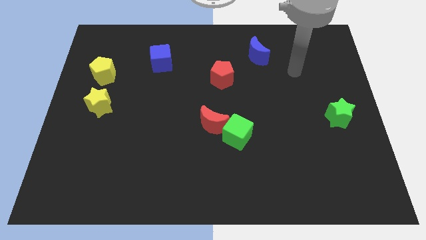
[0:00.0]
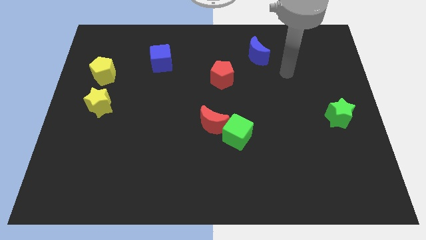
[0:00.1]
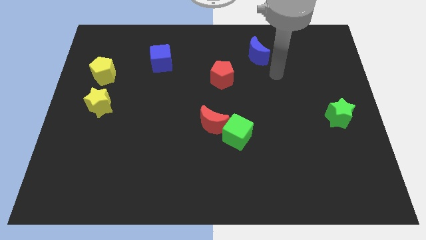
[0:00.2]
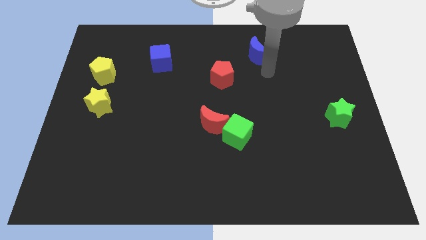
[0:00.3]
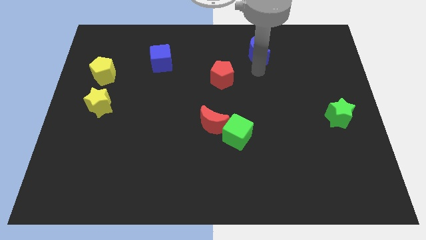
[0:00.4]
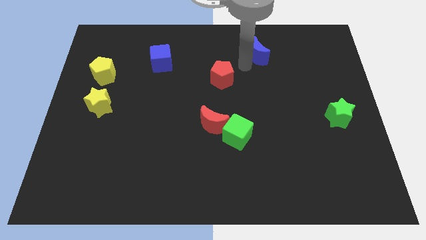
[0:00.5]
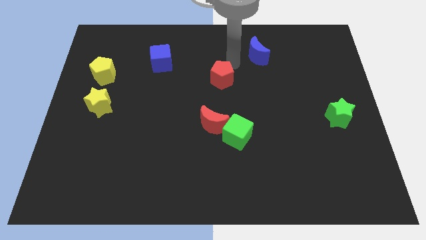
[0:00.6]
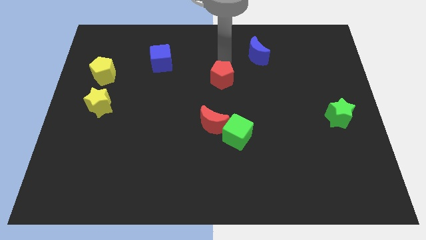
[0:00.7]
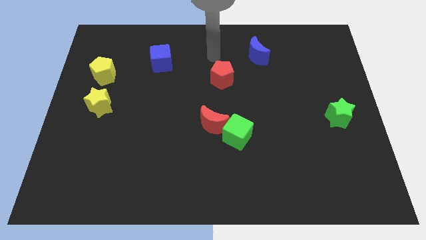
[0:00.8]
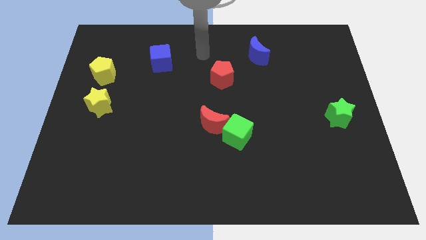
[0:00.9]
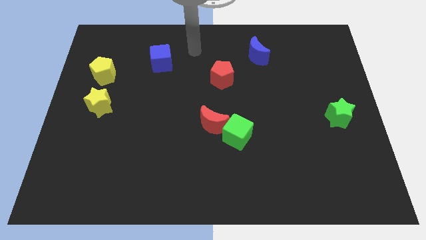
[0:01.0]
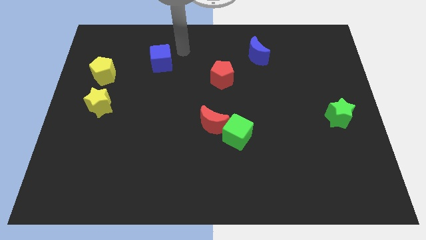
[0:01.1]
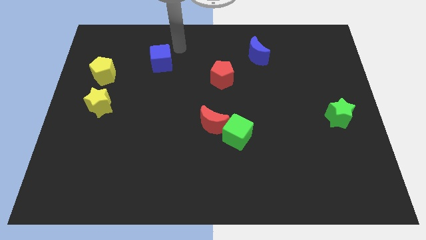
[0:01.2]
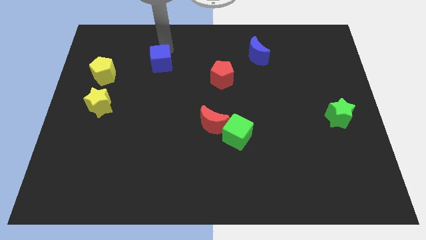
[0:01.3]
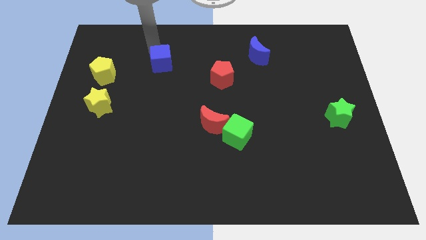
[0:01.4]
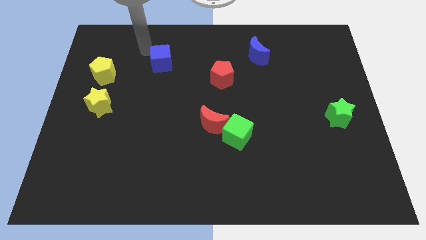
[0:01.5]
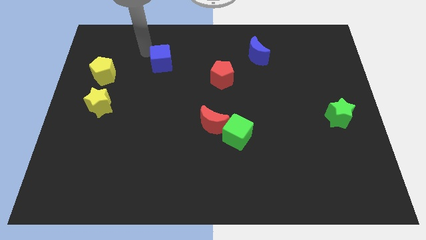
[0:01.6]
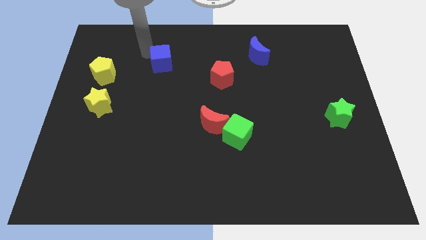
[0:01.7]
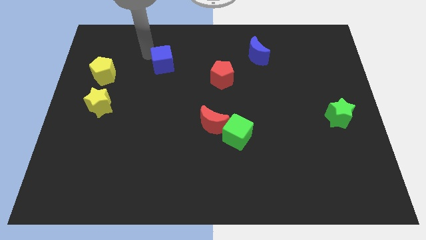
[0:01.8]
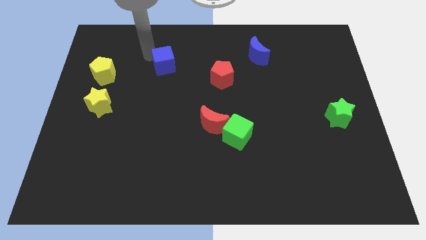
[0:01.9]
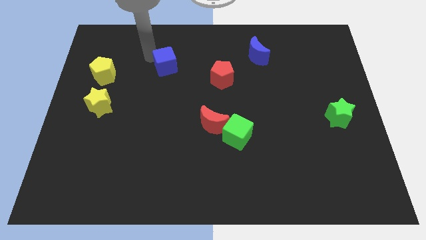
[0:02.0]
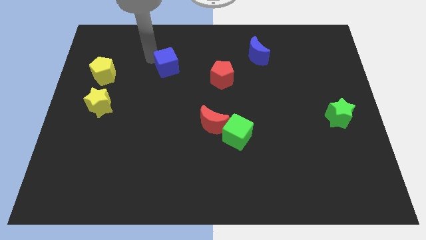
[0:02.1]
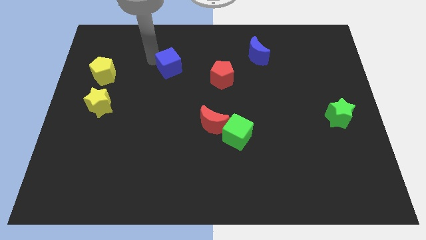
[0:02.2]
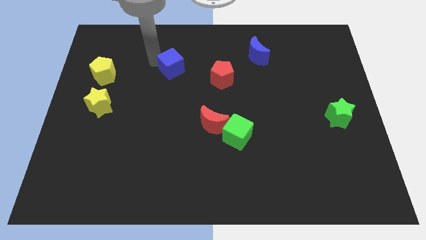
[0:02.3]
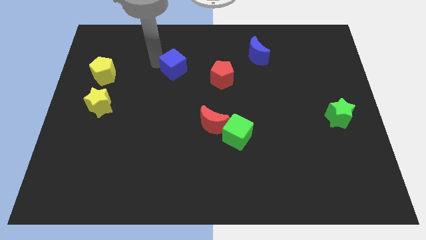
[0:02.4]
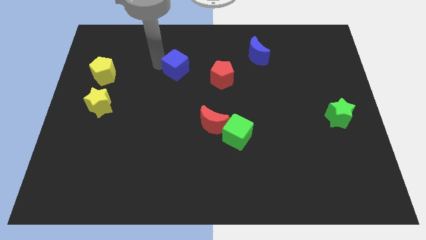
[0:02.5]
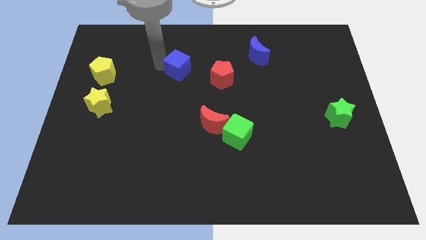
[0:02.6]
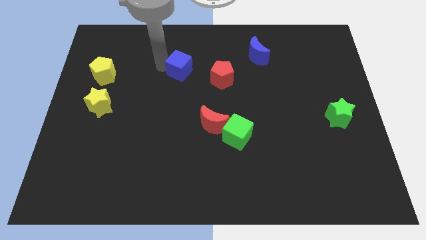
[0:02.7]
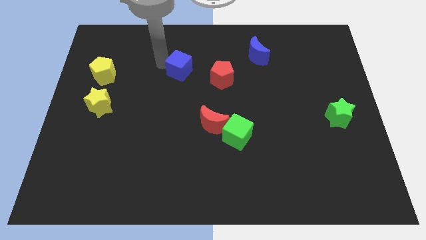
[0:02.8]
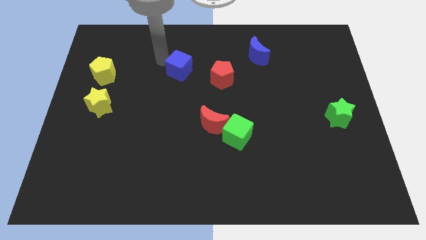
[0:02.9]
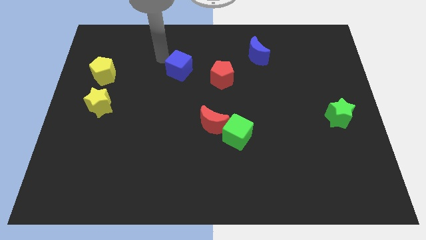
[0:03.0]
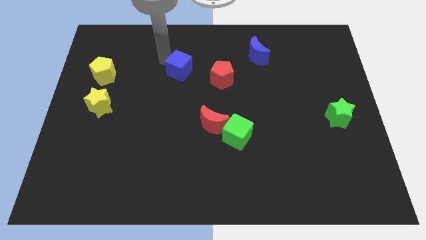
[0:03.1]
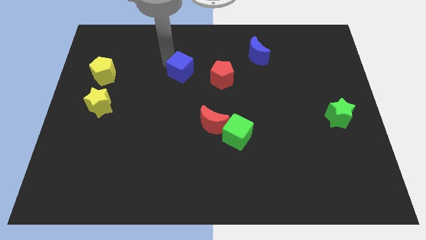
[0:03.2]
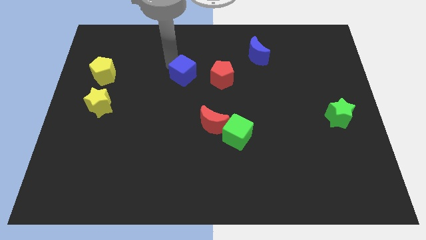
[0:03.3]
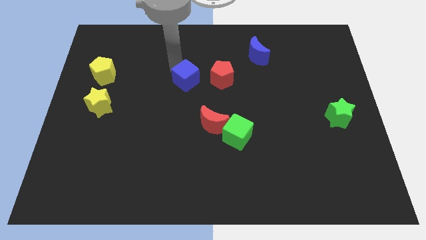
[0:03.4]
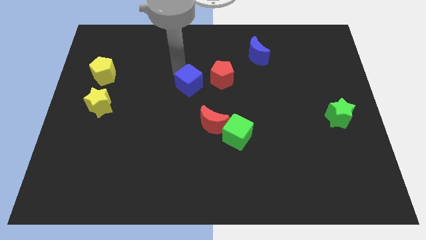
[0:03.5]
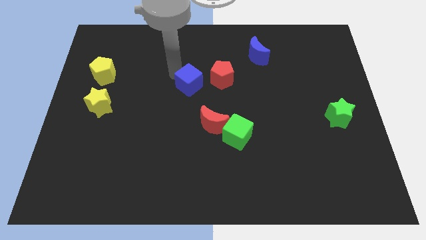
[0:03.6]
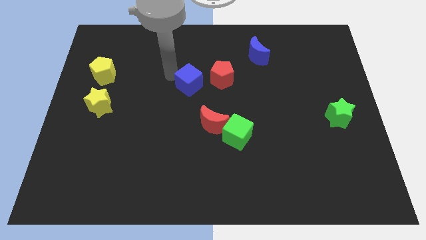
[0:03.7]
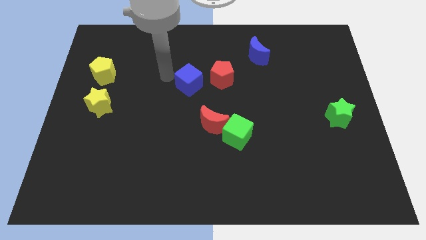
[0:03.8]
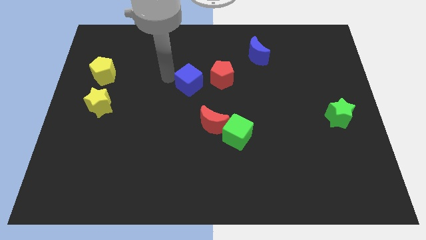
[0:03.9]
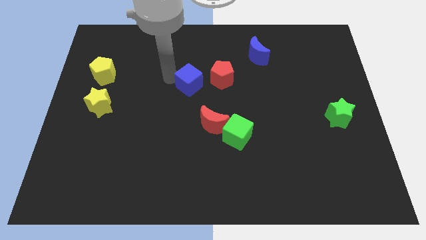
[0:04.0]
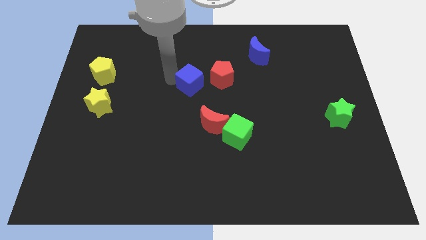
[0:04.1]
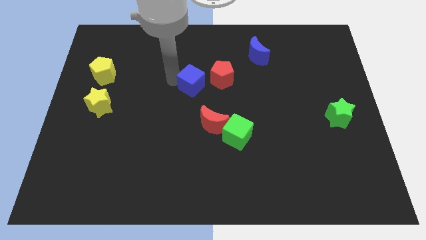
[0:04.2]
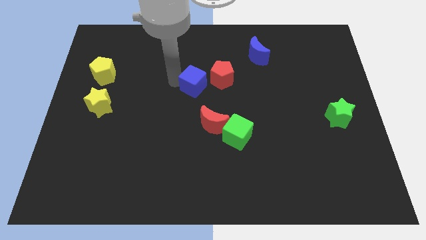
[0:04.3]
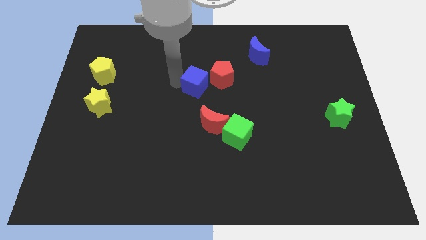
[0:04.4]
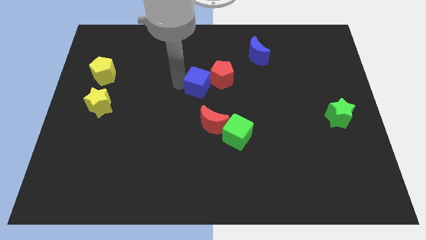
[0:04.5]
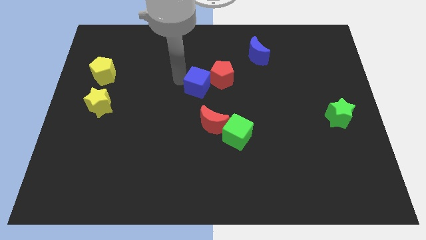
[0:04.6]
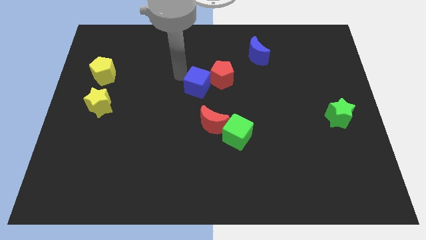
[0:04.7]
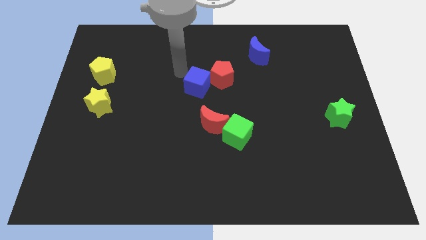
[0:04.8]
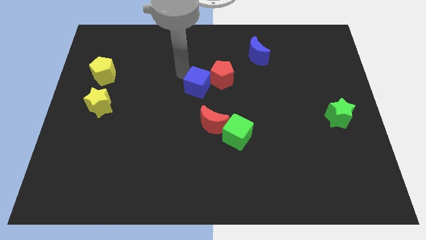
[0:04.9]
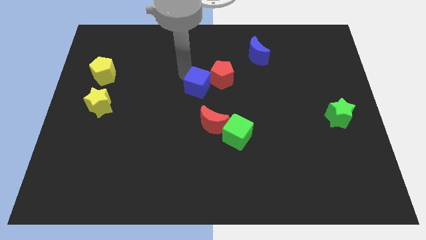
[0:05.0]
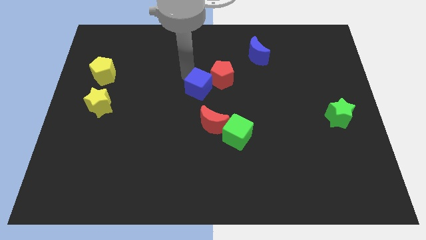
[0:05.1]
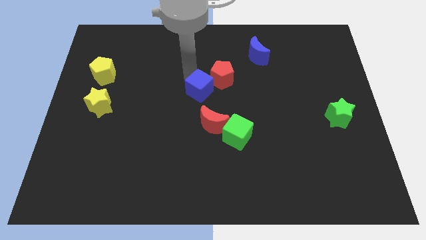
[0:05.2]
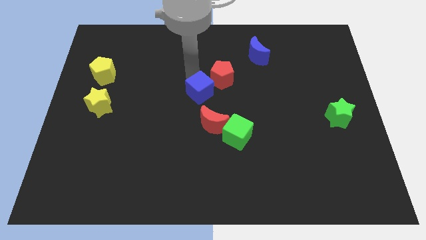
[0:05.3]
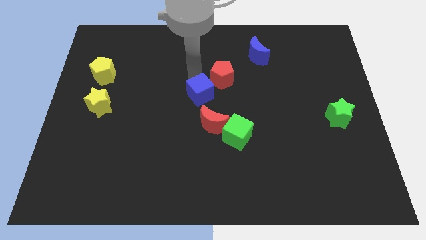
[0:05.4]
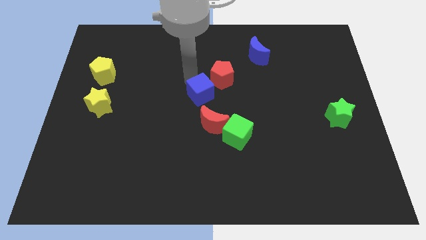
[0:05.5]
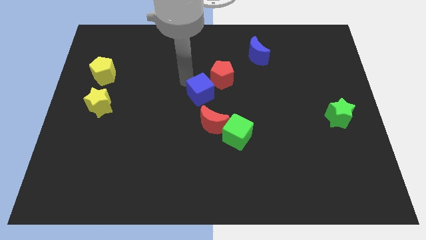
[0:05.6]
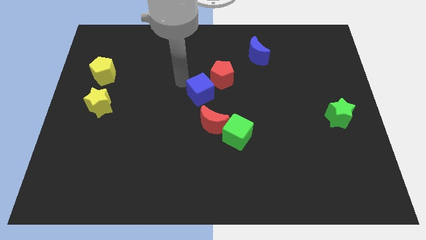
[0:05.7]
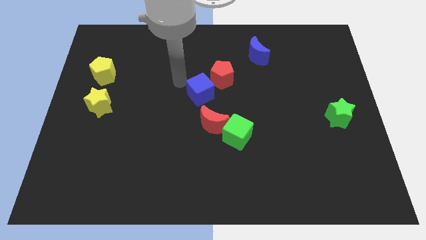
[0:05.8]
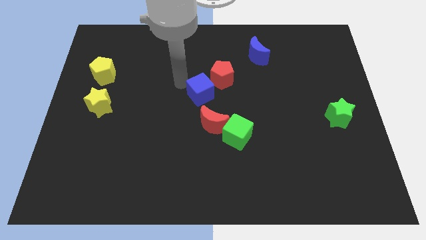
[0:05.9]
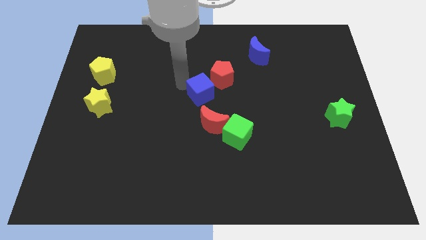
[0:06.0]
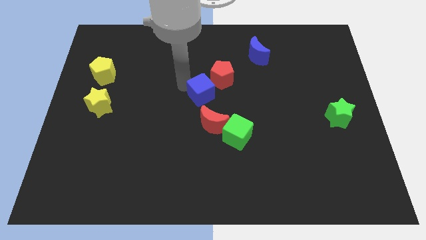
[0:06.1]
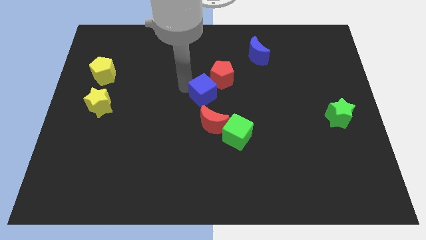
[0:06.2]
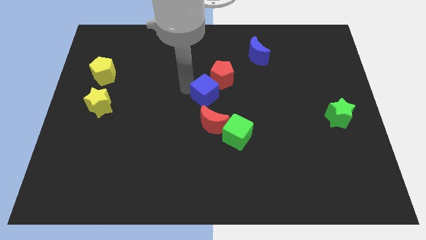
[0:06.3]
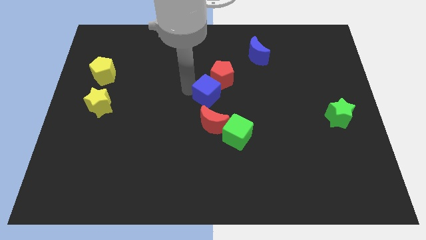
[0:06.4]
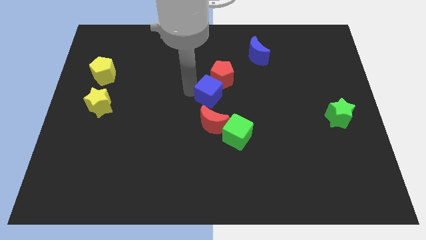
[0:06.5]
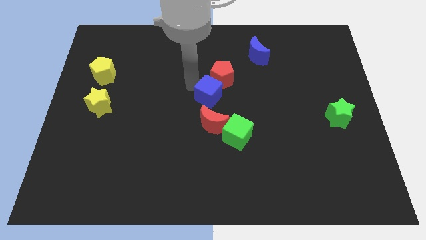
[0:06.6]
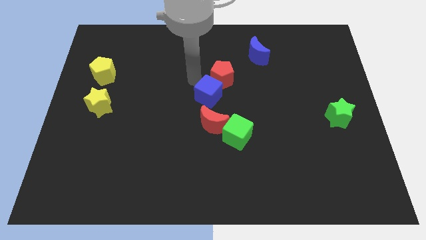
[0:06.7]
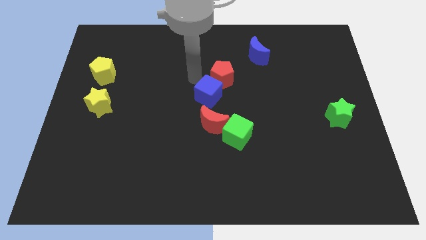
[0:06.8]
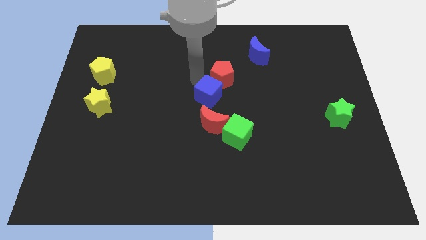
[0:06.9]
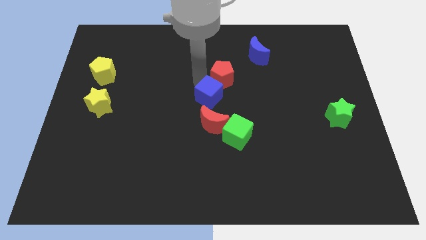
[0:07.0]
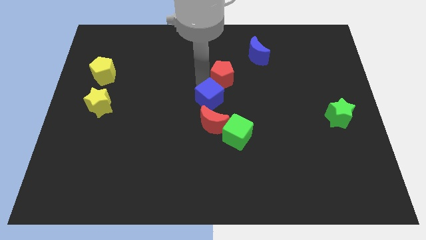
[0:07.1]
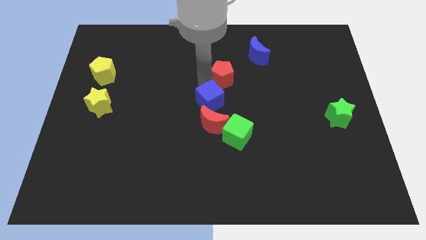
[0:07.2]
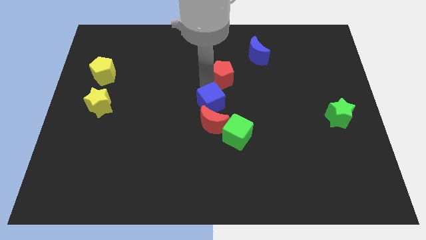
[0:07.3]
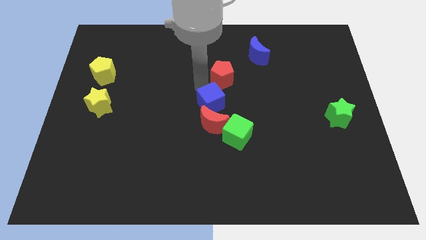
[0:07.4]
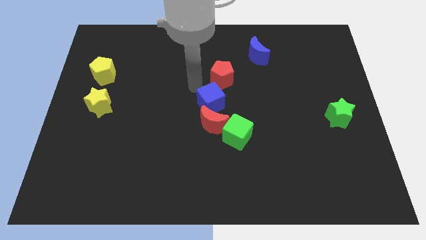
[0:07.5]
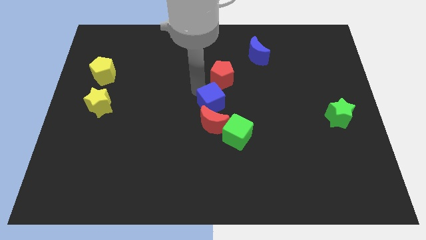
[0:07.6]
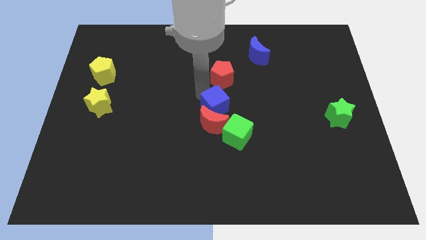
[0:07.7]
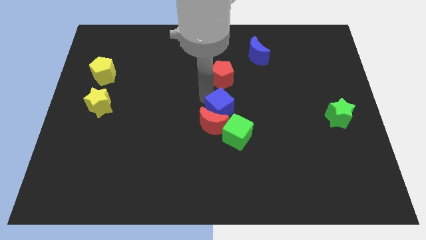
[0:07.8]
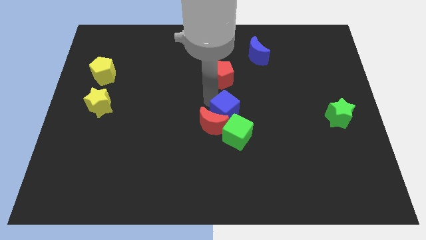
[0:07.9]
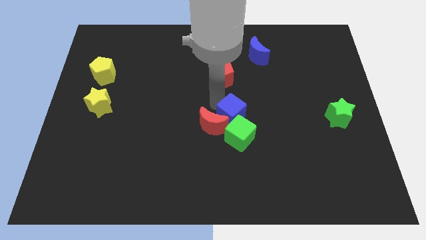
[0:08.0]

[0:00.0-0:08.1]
put the blue cube next to the green cube
